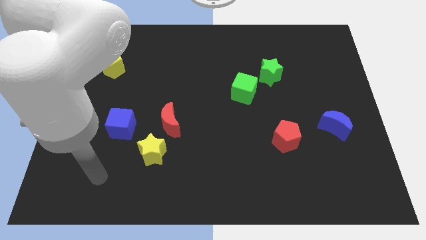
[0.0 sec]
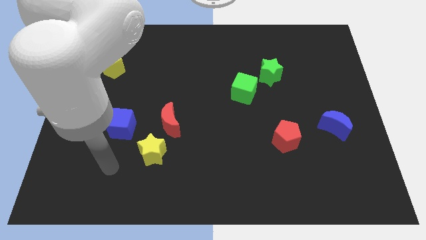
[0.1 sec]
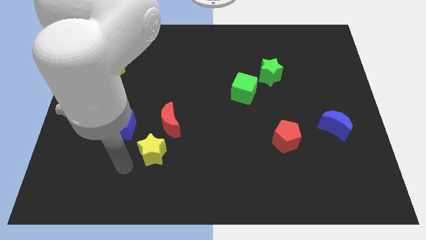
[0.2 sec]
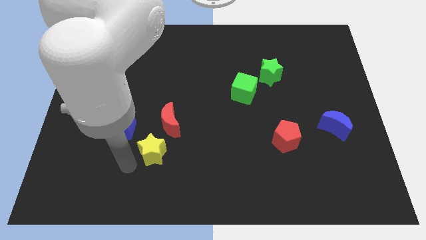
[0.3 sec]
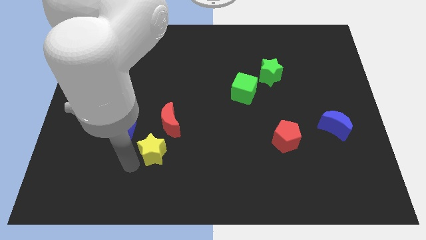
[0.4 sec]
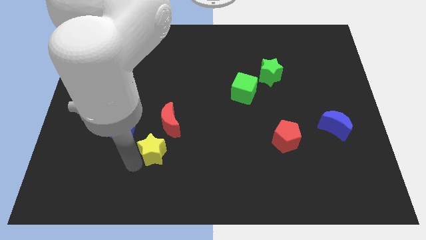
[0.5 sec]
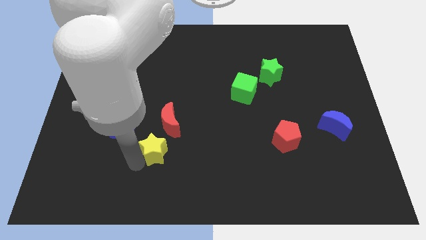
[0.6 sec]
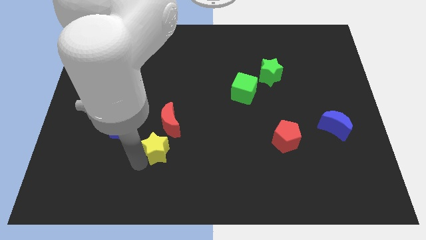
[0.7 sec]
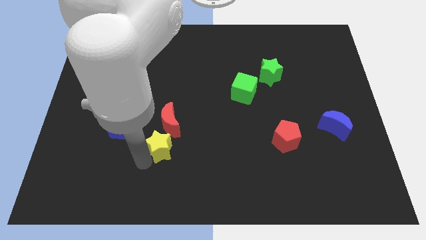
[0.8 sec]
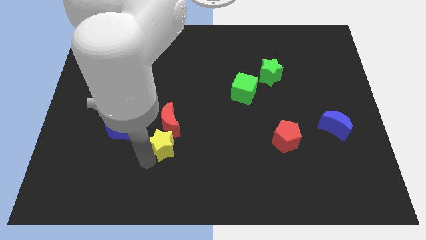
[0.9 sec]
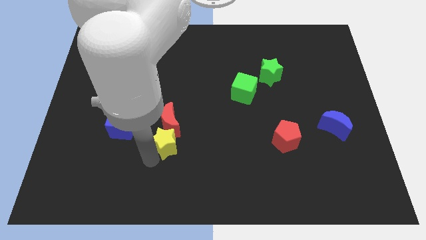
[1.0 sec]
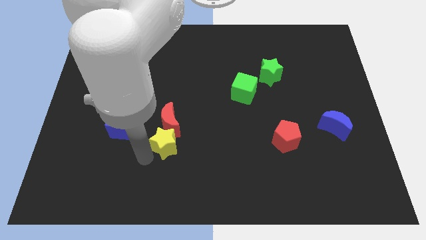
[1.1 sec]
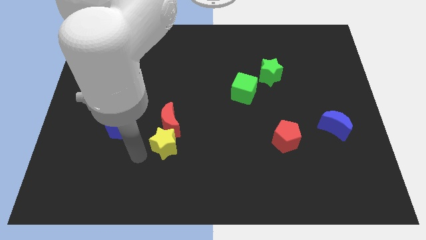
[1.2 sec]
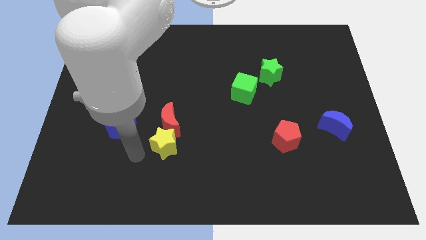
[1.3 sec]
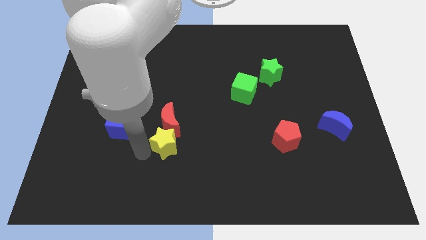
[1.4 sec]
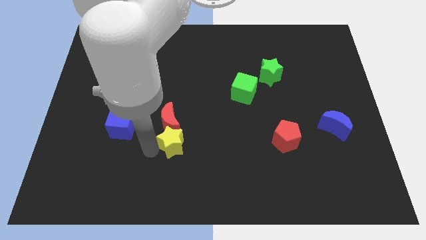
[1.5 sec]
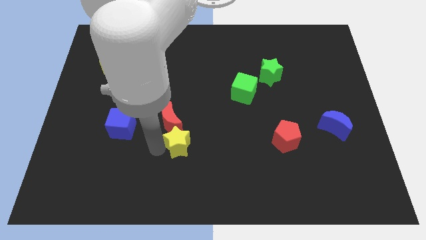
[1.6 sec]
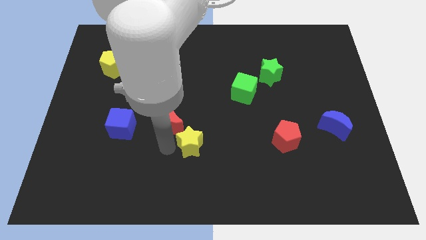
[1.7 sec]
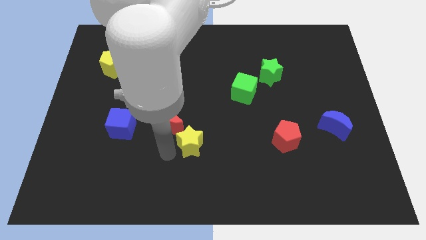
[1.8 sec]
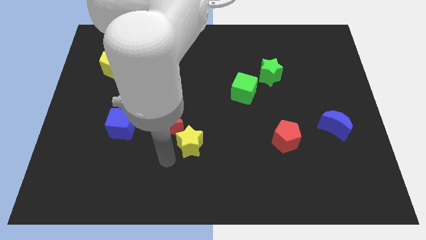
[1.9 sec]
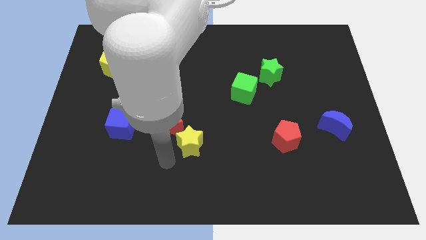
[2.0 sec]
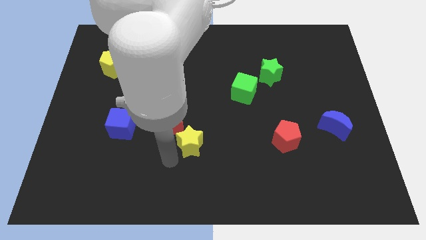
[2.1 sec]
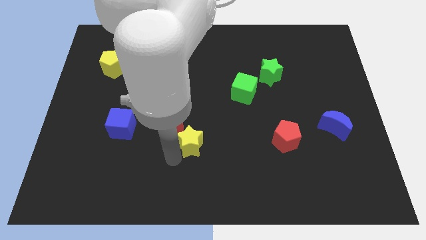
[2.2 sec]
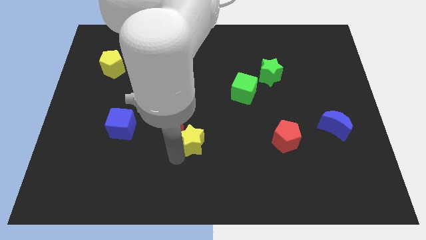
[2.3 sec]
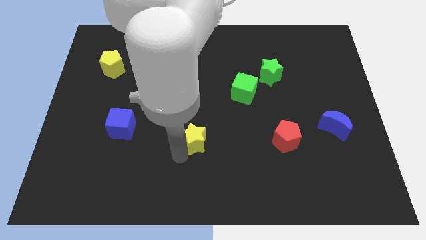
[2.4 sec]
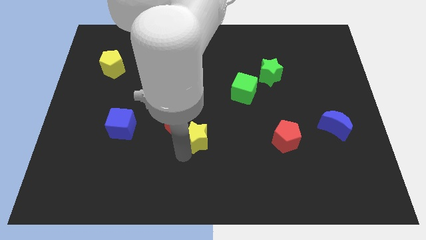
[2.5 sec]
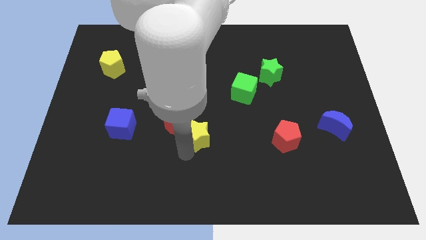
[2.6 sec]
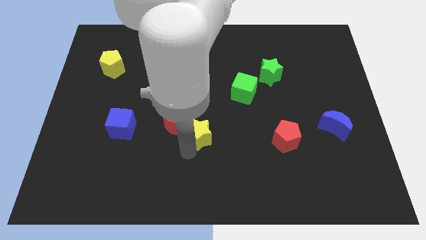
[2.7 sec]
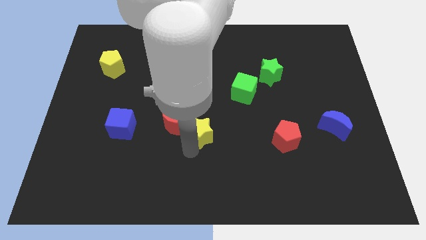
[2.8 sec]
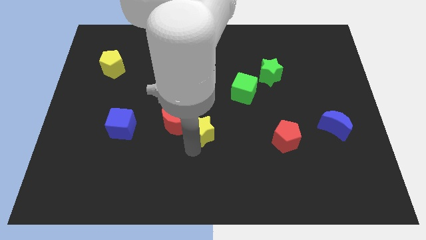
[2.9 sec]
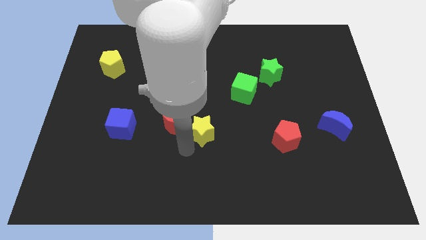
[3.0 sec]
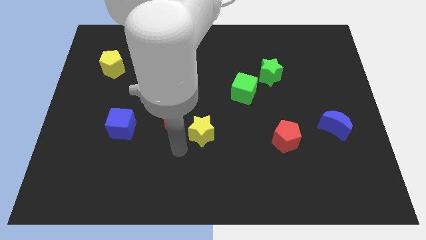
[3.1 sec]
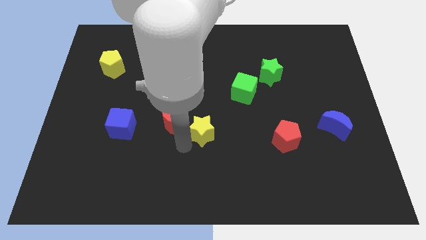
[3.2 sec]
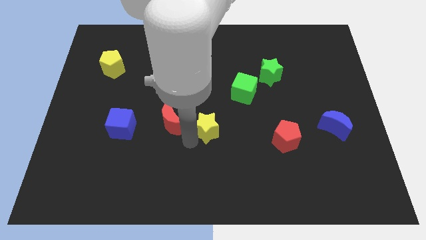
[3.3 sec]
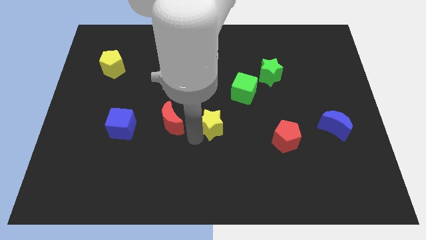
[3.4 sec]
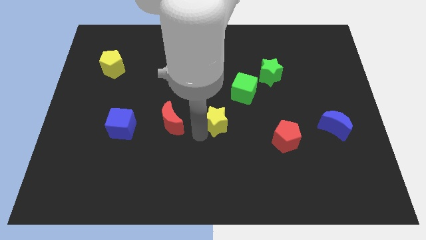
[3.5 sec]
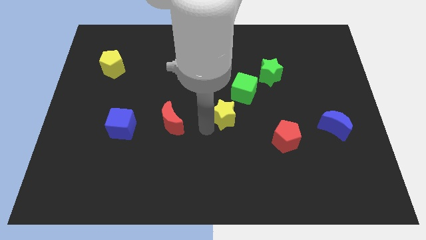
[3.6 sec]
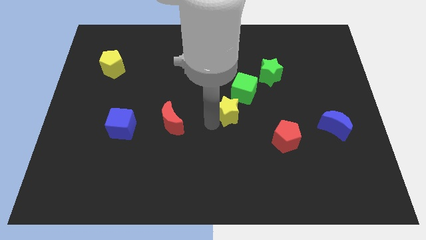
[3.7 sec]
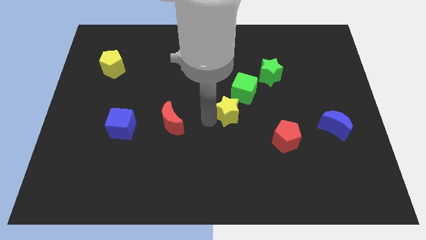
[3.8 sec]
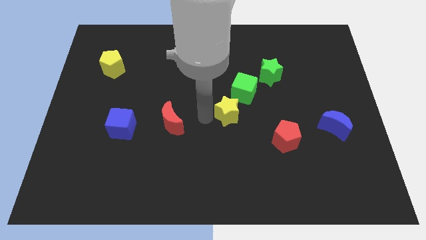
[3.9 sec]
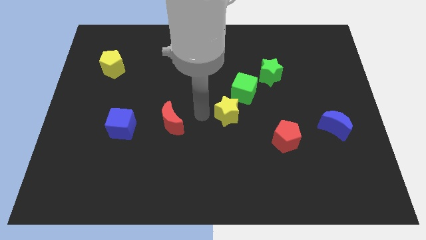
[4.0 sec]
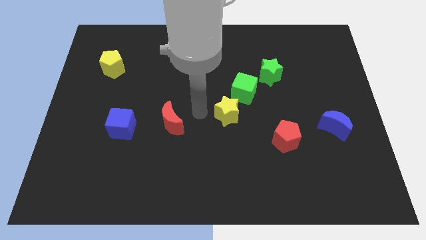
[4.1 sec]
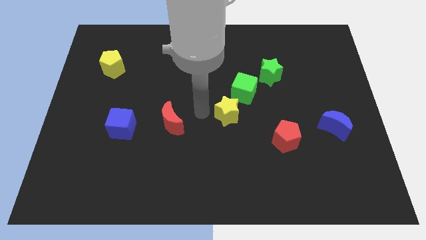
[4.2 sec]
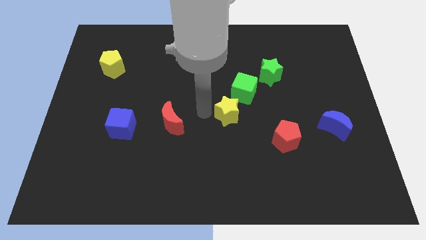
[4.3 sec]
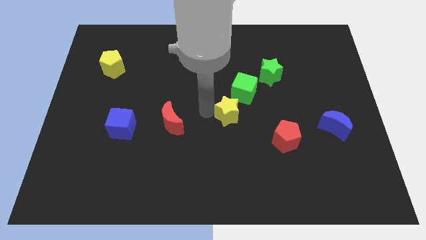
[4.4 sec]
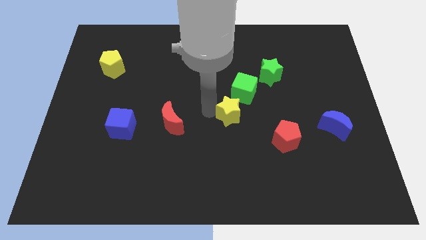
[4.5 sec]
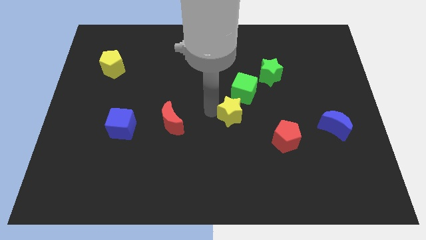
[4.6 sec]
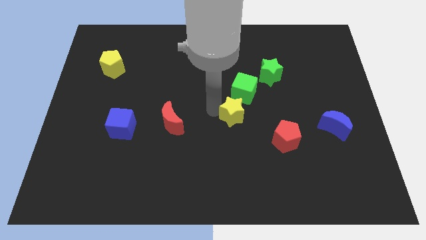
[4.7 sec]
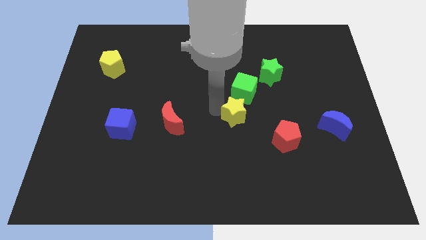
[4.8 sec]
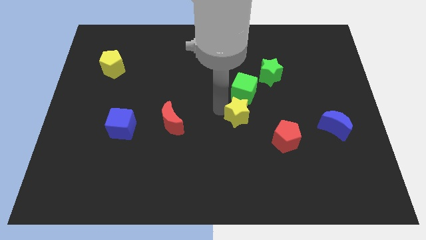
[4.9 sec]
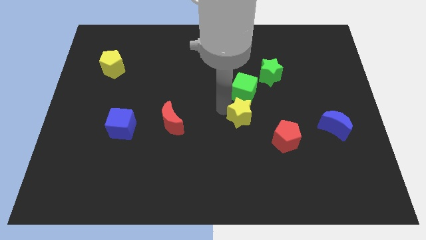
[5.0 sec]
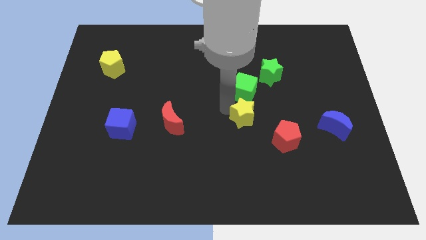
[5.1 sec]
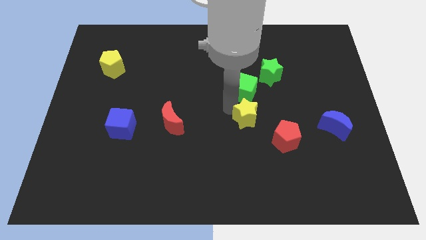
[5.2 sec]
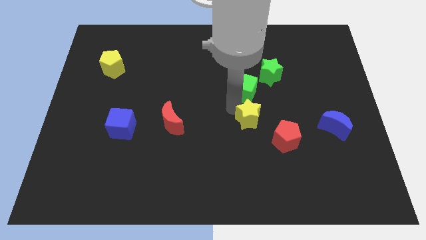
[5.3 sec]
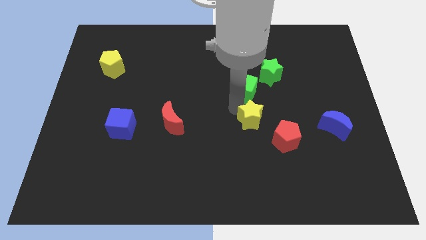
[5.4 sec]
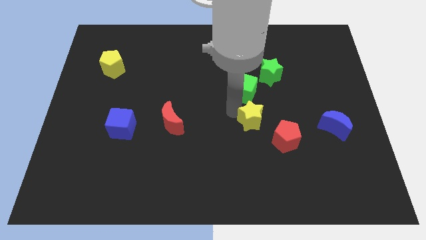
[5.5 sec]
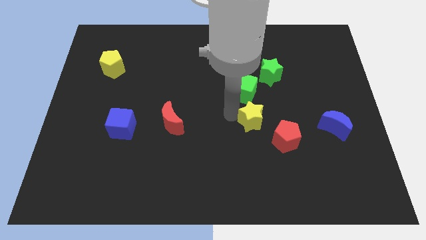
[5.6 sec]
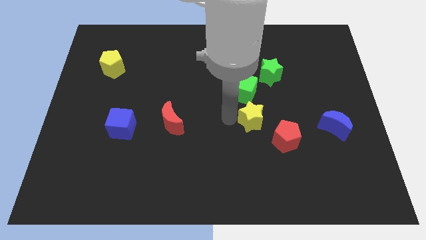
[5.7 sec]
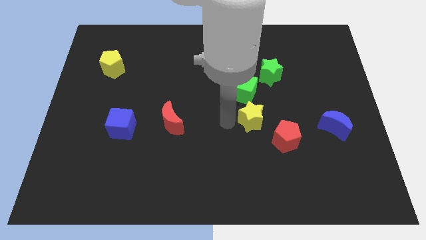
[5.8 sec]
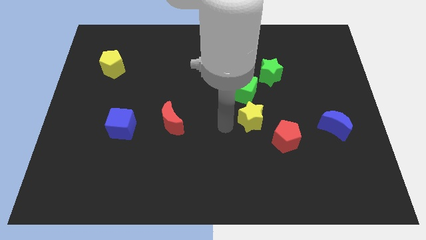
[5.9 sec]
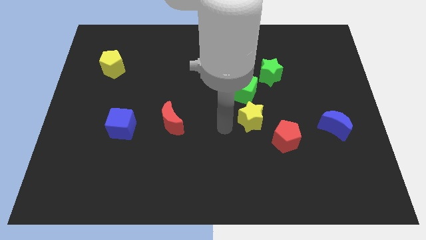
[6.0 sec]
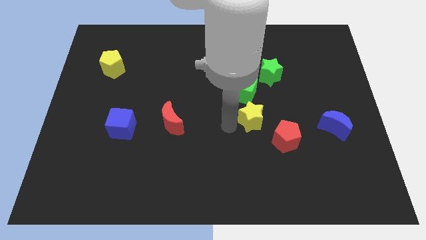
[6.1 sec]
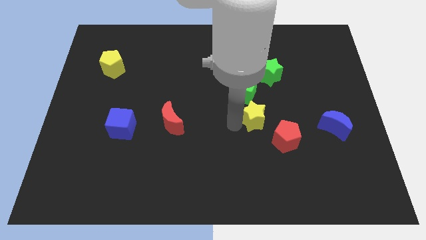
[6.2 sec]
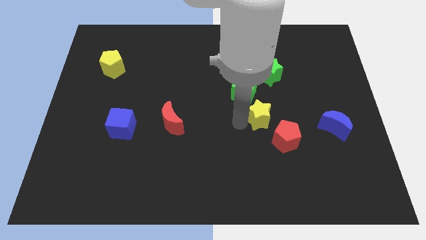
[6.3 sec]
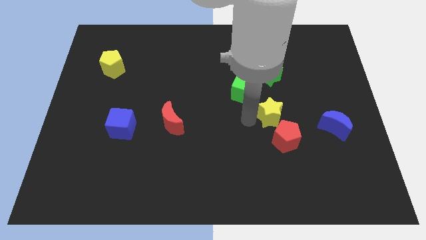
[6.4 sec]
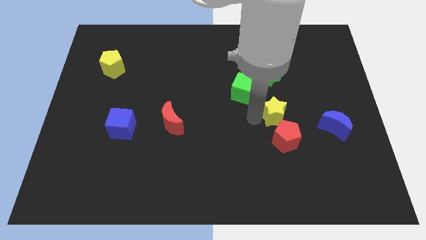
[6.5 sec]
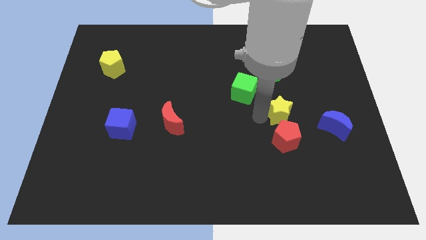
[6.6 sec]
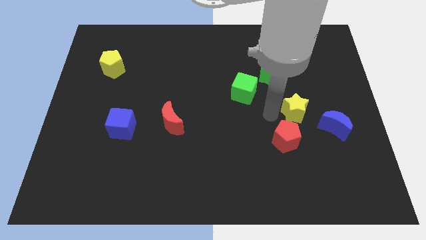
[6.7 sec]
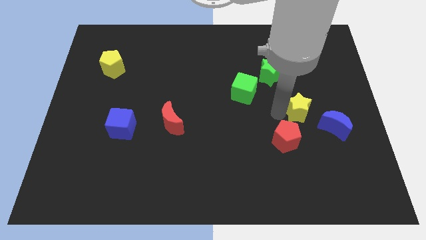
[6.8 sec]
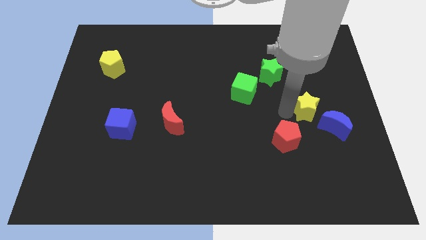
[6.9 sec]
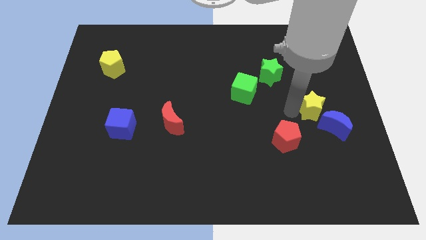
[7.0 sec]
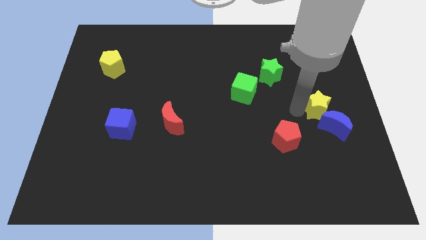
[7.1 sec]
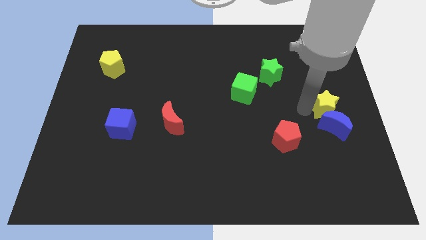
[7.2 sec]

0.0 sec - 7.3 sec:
put the yellow star to the right side of the board

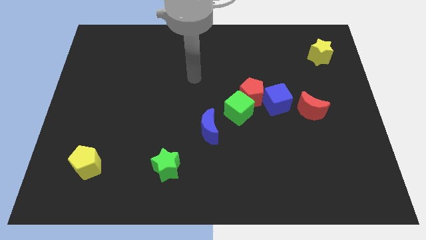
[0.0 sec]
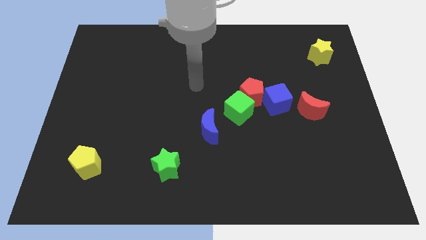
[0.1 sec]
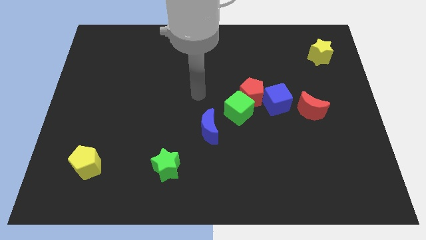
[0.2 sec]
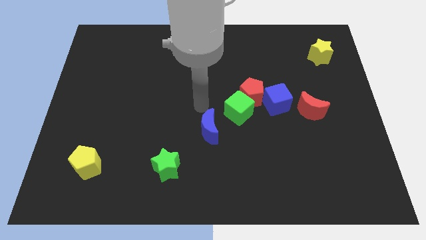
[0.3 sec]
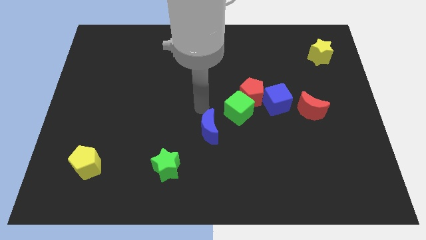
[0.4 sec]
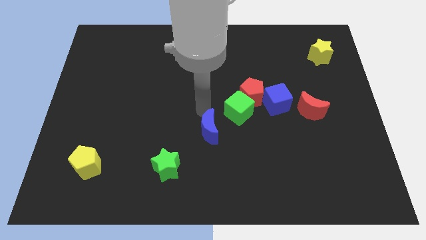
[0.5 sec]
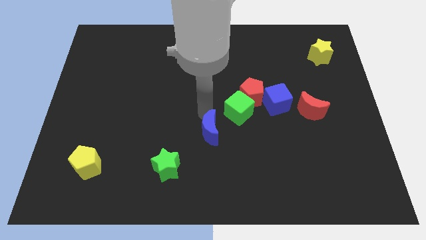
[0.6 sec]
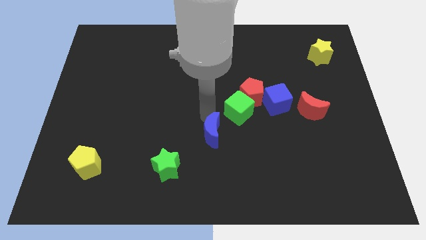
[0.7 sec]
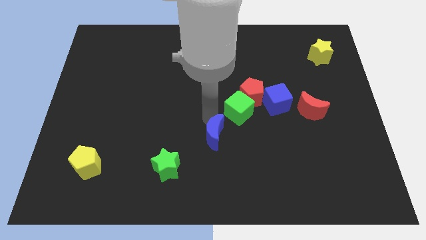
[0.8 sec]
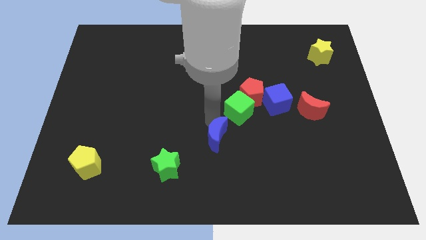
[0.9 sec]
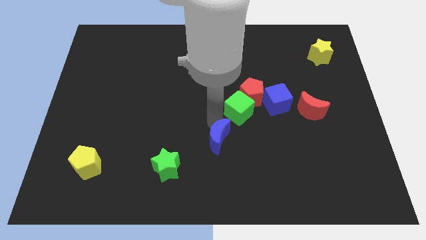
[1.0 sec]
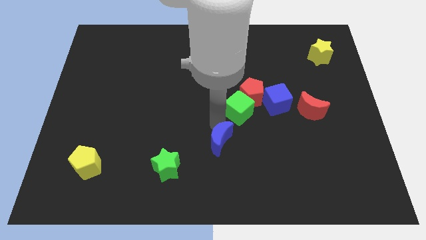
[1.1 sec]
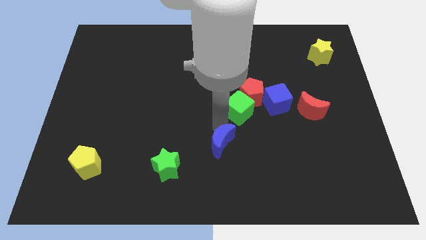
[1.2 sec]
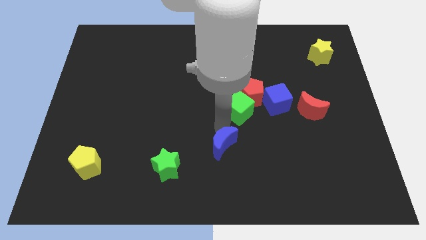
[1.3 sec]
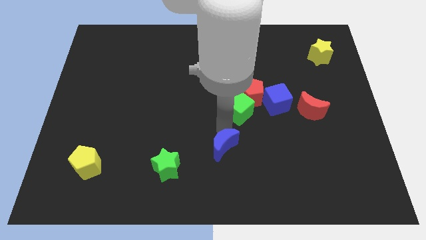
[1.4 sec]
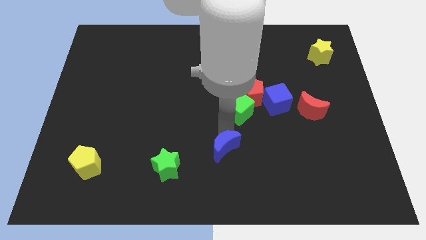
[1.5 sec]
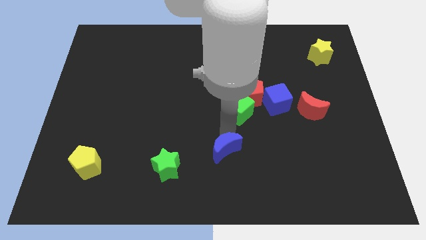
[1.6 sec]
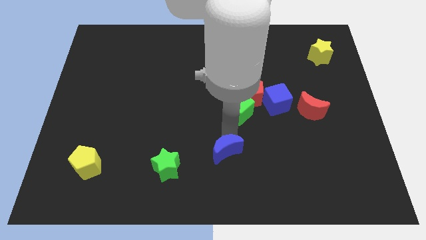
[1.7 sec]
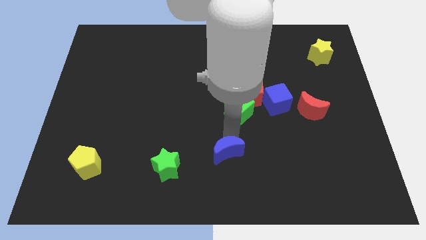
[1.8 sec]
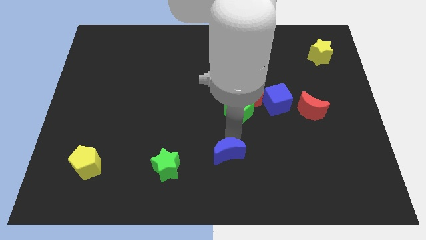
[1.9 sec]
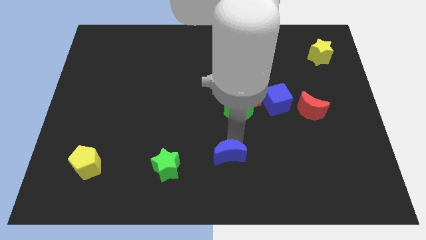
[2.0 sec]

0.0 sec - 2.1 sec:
move the blue moon to the bottom
